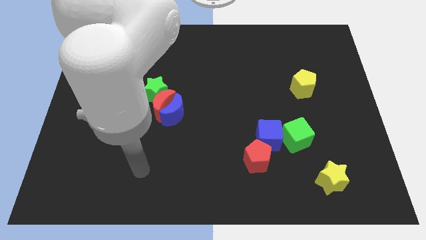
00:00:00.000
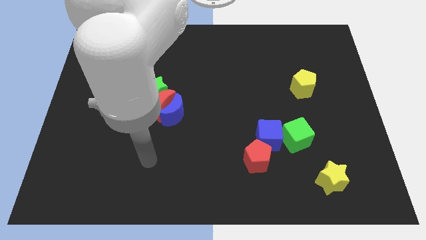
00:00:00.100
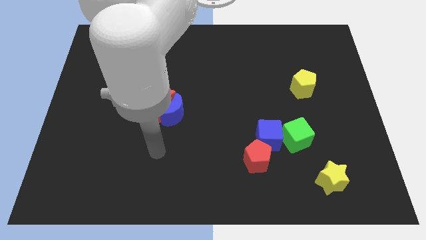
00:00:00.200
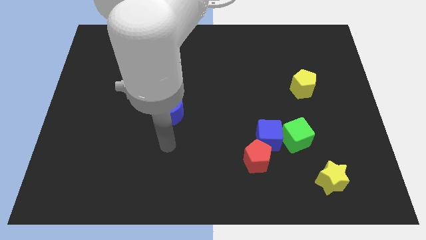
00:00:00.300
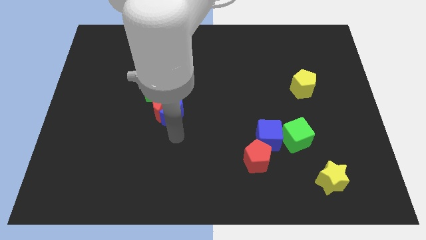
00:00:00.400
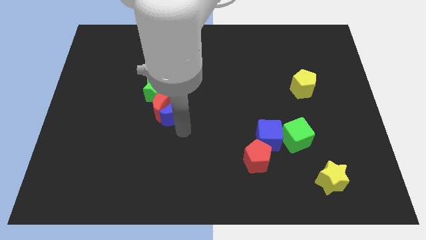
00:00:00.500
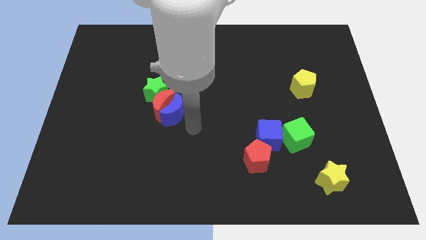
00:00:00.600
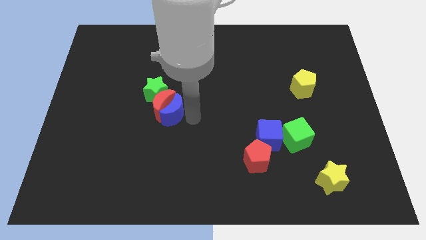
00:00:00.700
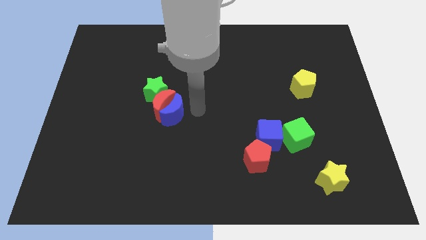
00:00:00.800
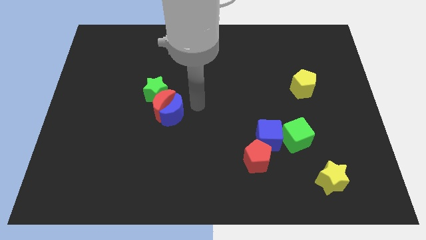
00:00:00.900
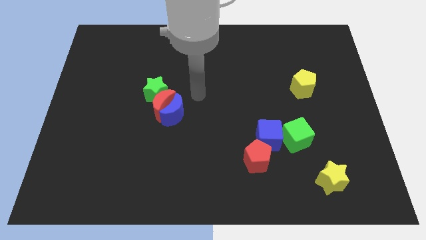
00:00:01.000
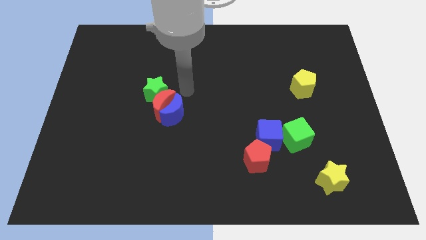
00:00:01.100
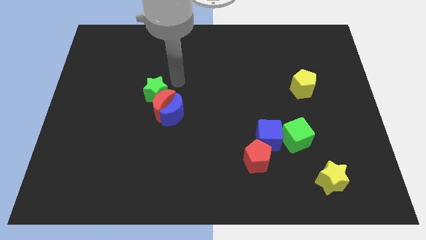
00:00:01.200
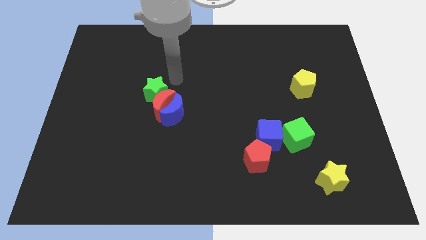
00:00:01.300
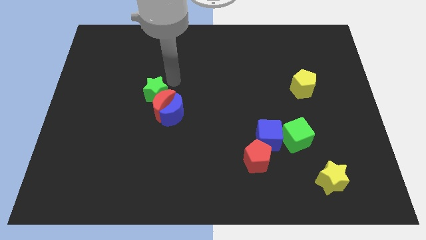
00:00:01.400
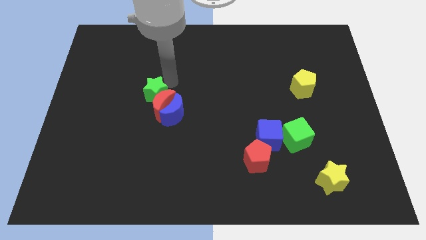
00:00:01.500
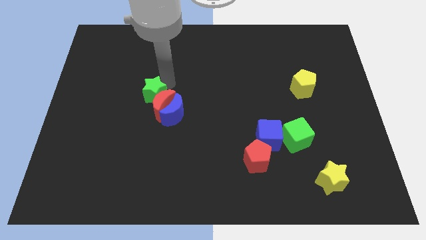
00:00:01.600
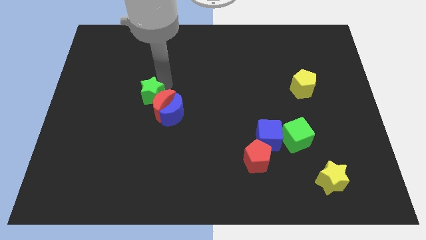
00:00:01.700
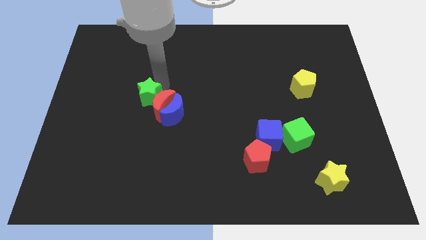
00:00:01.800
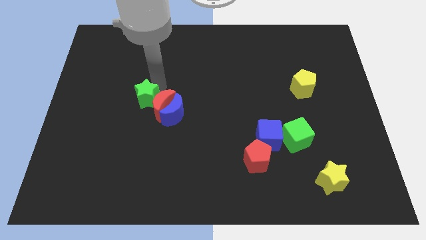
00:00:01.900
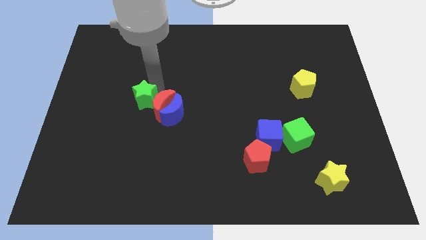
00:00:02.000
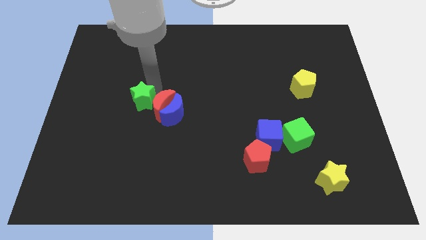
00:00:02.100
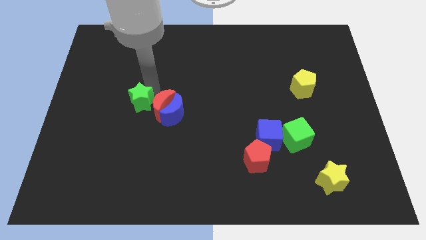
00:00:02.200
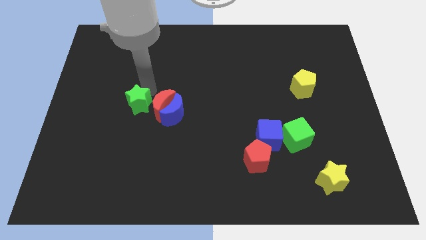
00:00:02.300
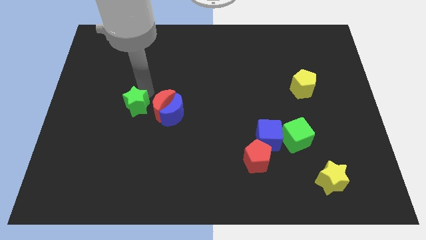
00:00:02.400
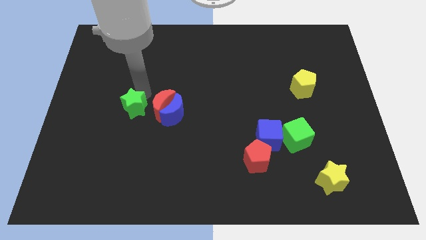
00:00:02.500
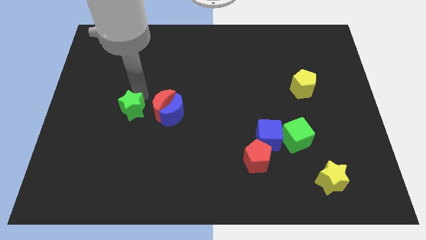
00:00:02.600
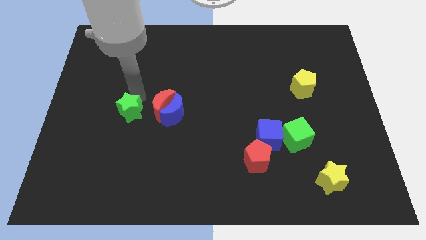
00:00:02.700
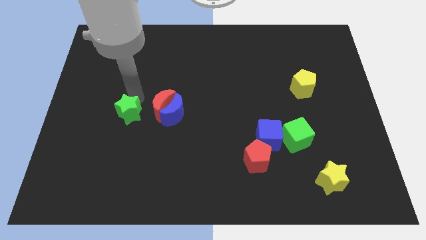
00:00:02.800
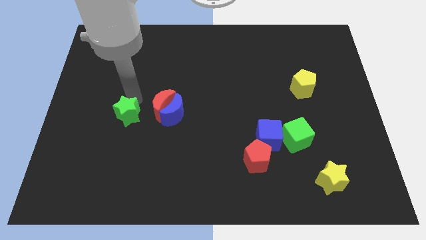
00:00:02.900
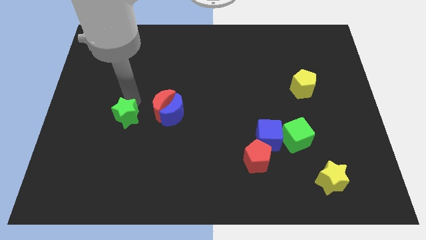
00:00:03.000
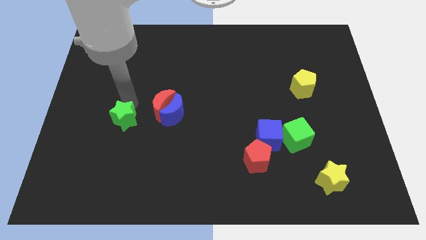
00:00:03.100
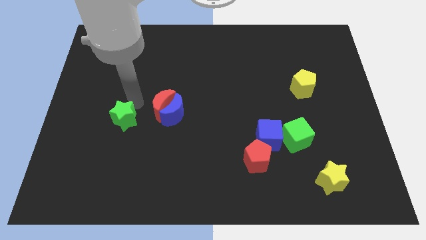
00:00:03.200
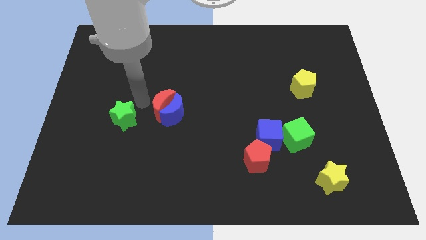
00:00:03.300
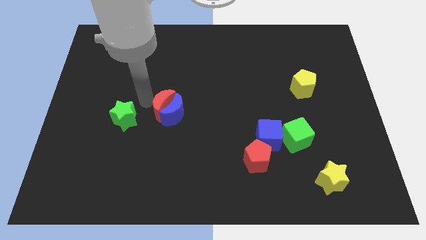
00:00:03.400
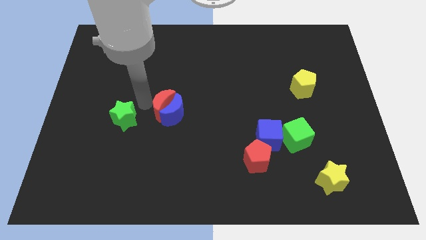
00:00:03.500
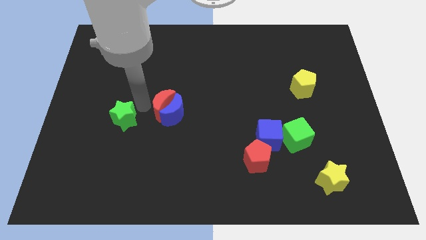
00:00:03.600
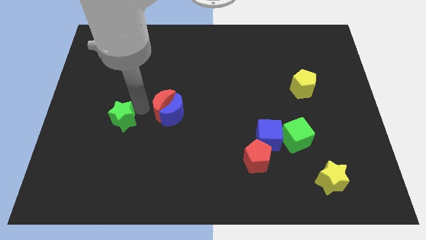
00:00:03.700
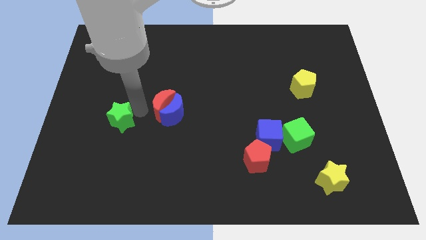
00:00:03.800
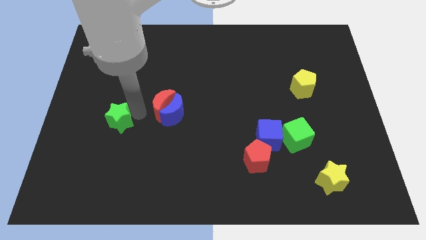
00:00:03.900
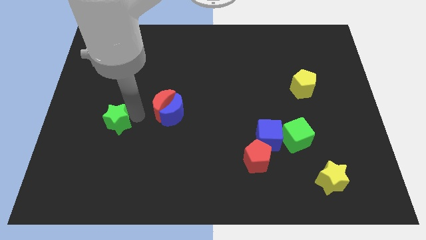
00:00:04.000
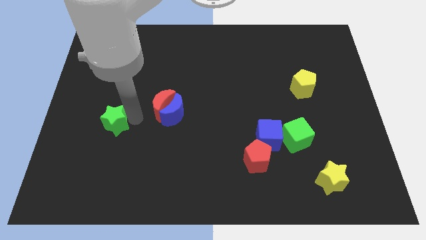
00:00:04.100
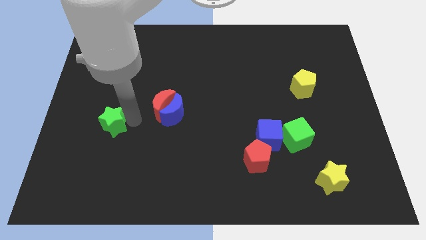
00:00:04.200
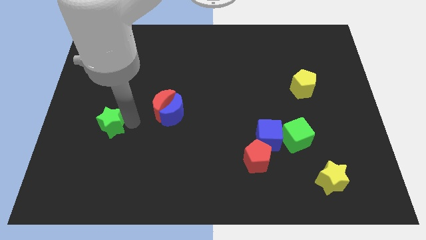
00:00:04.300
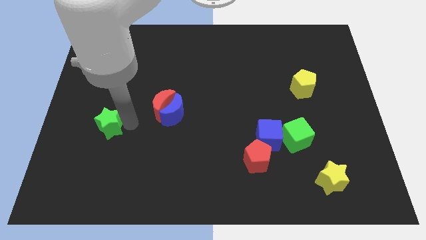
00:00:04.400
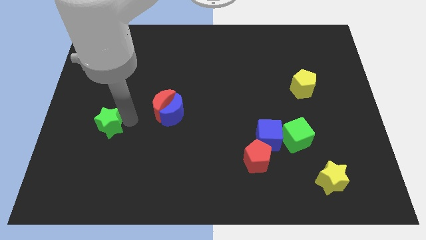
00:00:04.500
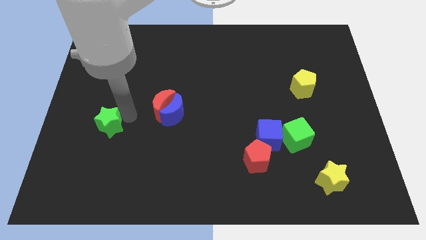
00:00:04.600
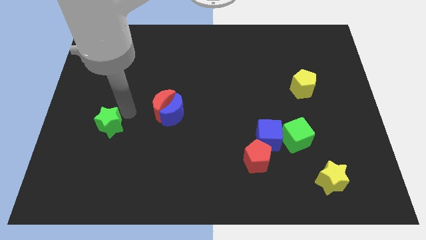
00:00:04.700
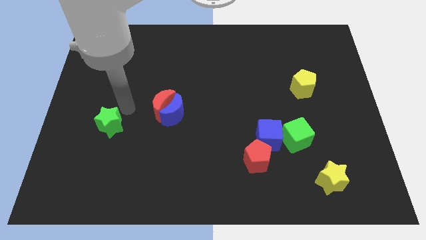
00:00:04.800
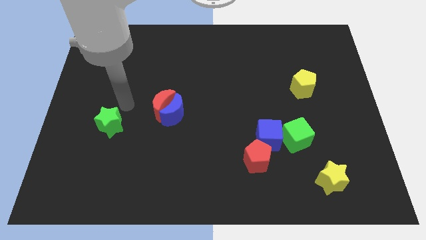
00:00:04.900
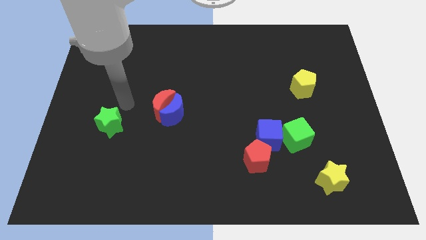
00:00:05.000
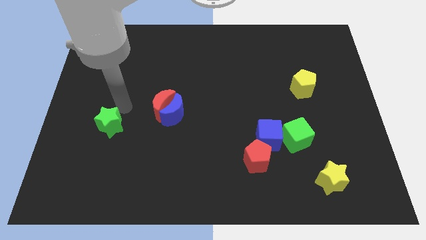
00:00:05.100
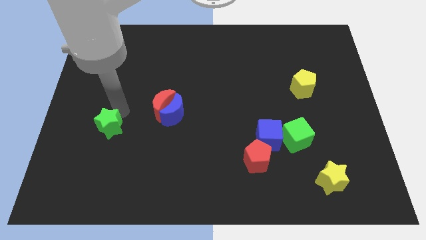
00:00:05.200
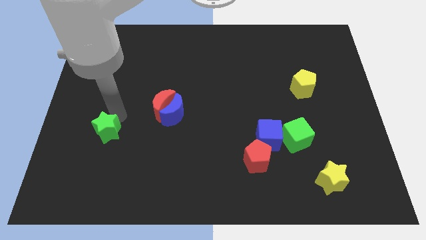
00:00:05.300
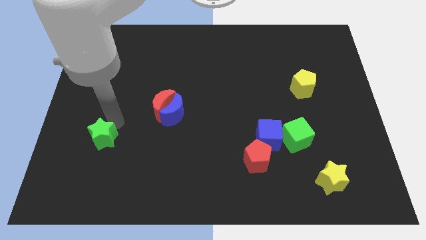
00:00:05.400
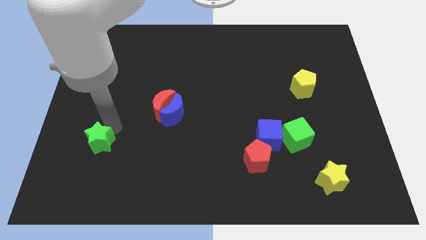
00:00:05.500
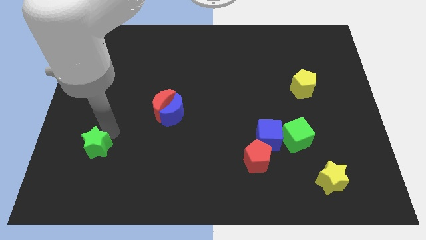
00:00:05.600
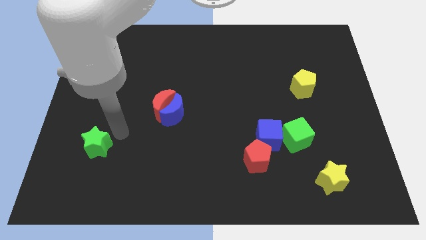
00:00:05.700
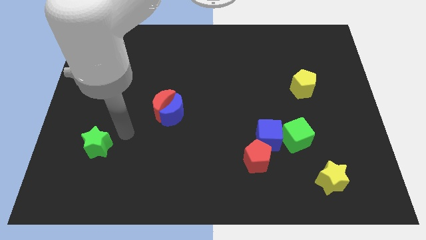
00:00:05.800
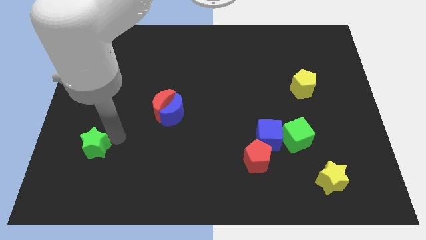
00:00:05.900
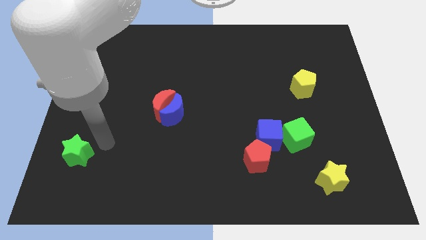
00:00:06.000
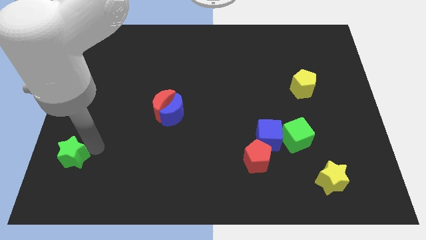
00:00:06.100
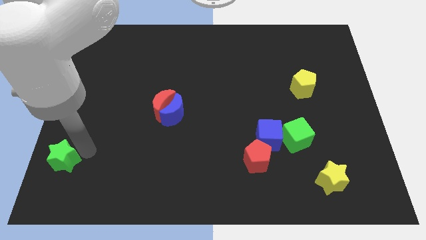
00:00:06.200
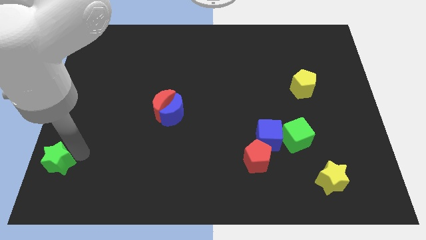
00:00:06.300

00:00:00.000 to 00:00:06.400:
put the green star to the bottom left corner
